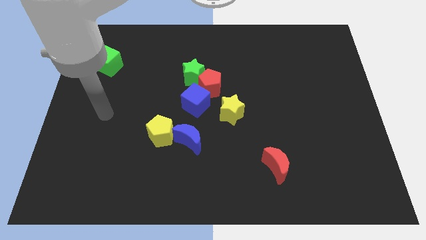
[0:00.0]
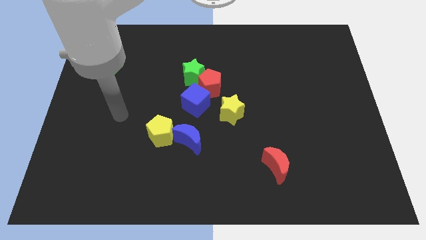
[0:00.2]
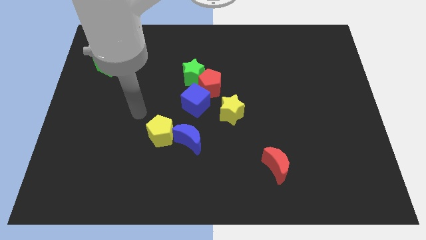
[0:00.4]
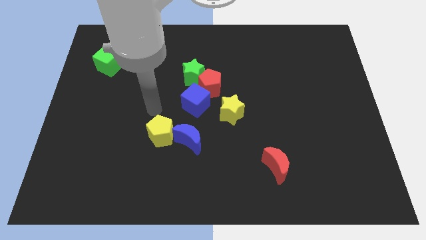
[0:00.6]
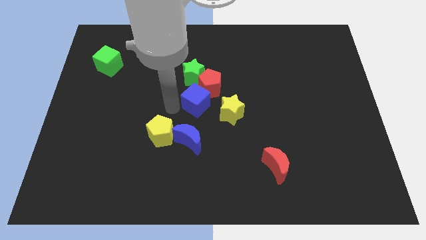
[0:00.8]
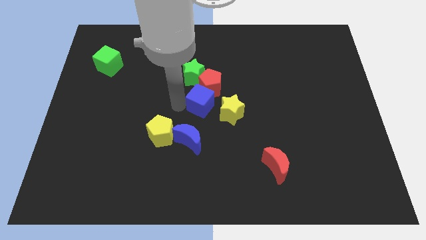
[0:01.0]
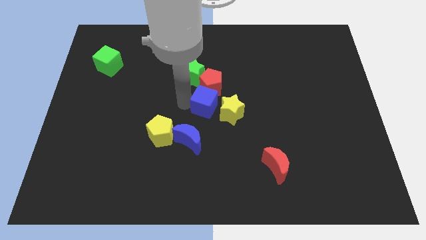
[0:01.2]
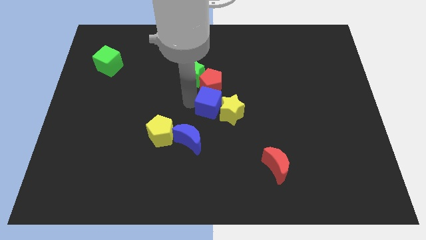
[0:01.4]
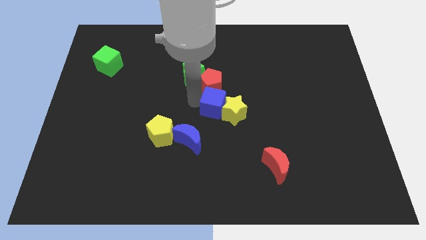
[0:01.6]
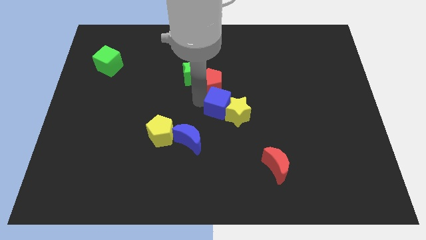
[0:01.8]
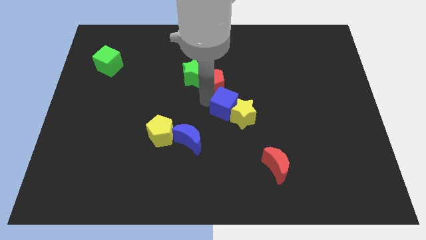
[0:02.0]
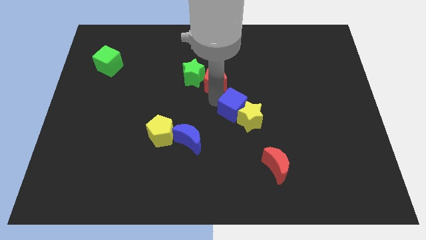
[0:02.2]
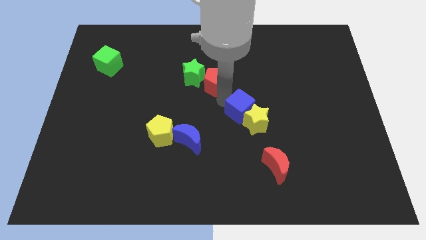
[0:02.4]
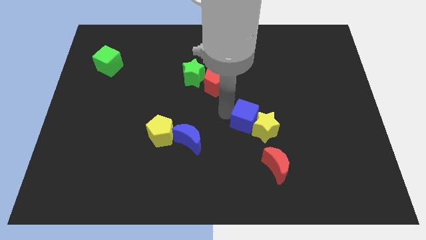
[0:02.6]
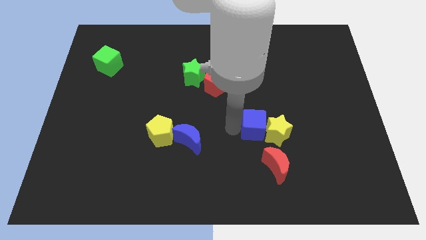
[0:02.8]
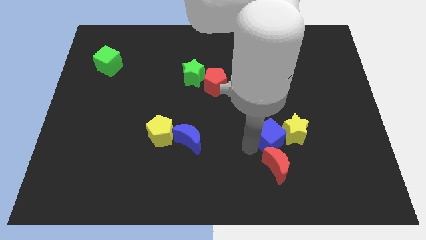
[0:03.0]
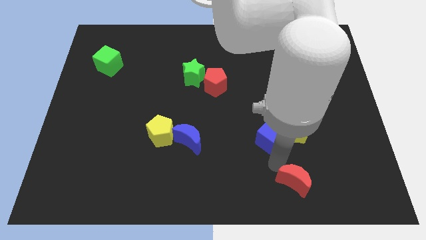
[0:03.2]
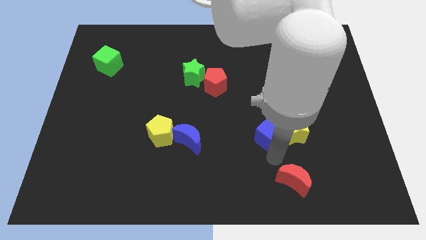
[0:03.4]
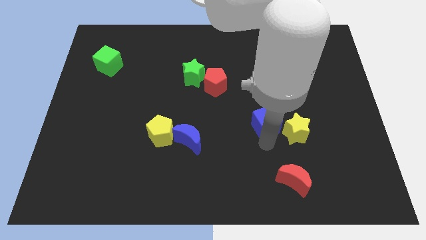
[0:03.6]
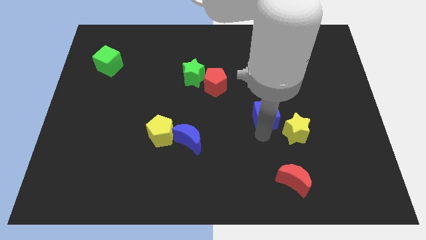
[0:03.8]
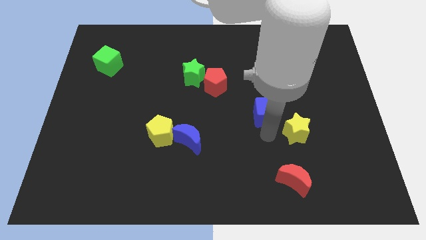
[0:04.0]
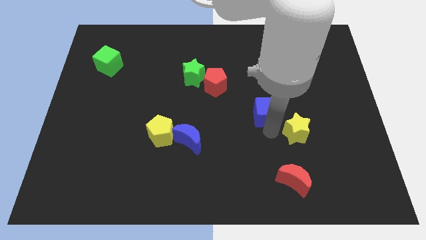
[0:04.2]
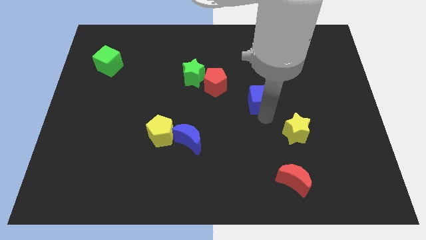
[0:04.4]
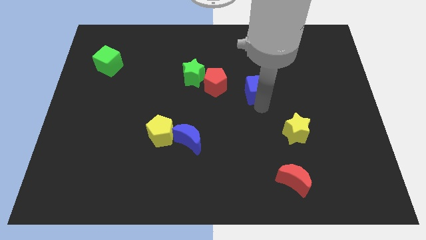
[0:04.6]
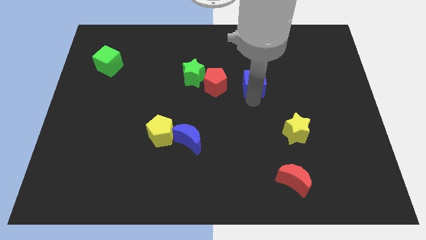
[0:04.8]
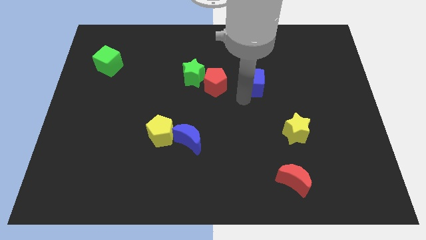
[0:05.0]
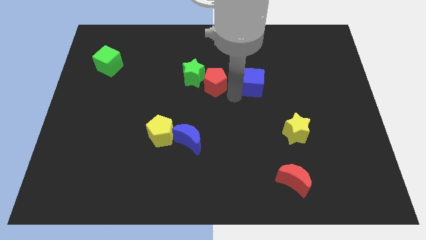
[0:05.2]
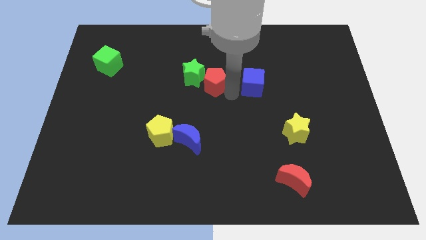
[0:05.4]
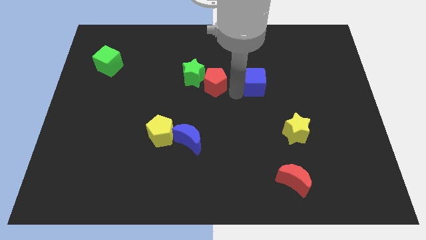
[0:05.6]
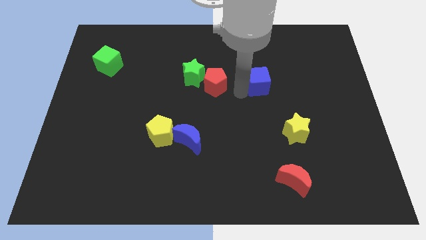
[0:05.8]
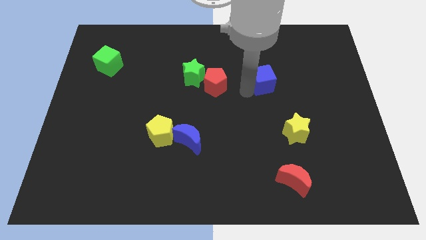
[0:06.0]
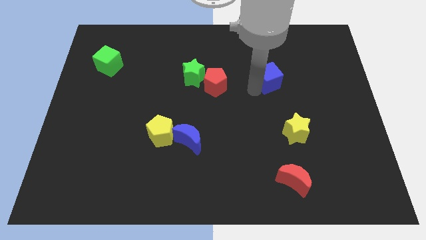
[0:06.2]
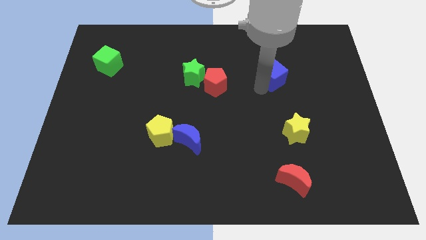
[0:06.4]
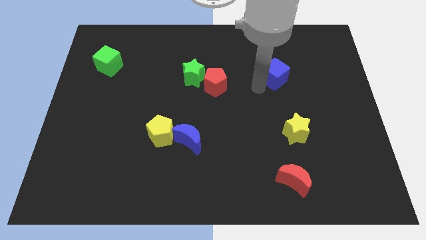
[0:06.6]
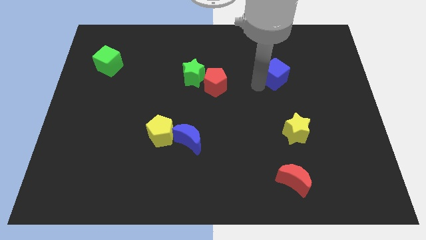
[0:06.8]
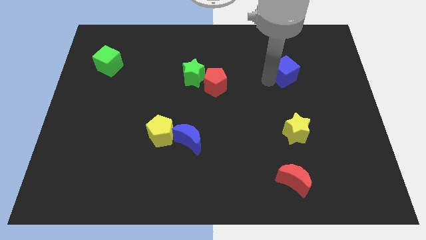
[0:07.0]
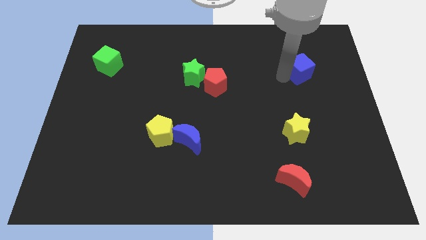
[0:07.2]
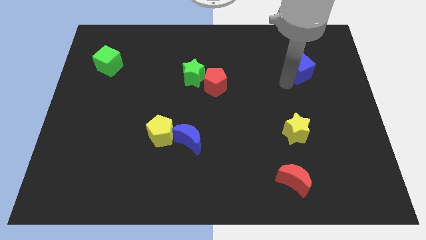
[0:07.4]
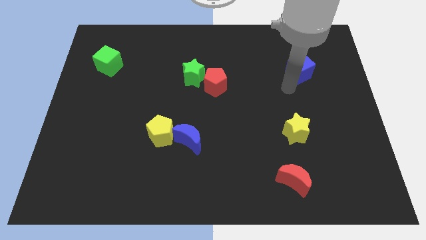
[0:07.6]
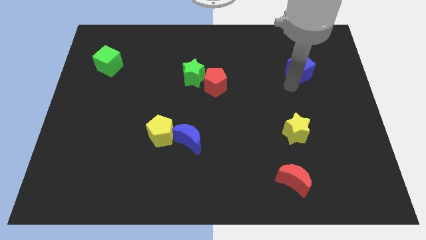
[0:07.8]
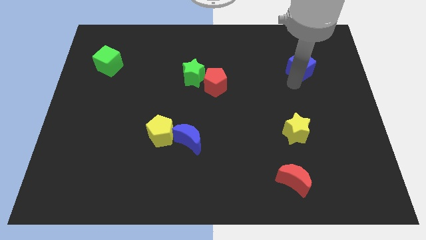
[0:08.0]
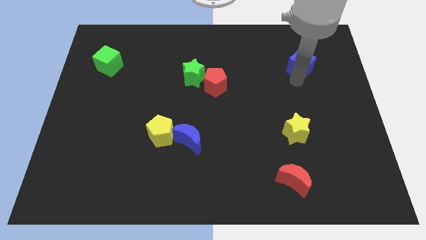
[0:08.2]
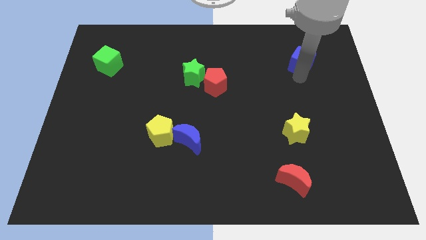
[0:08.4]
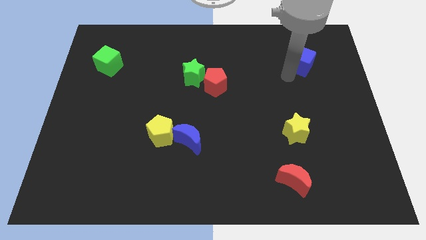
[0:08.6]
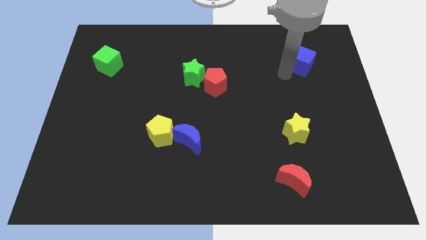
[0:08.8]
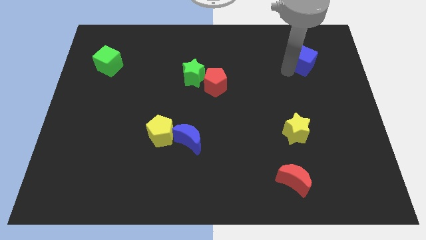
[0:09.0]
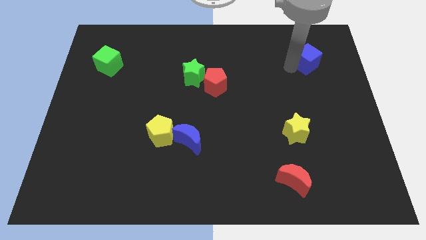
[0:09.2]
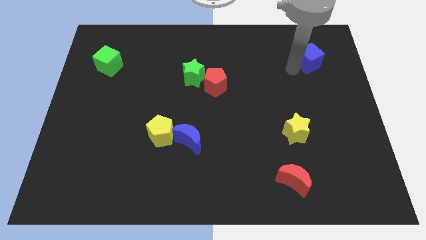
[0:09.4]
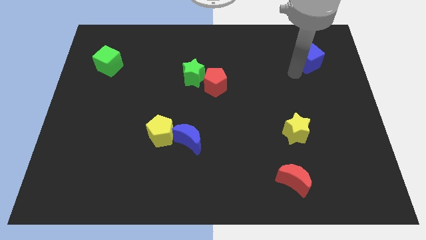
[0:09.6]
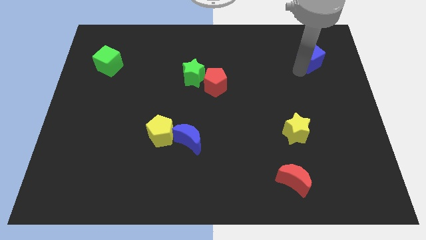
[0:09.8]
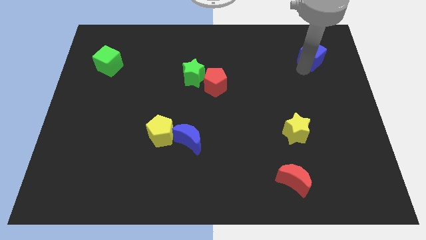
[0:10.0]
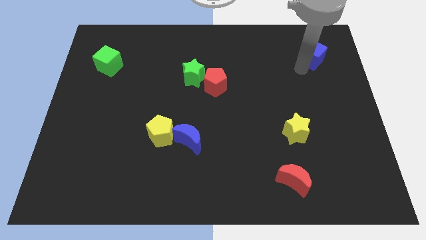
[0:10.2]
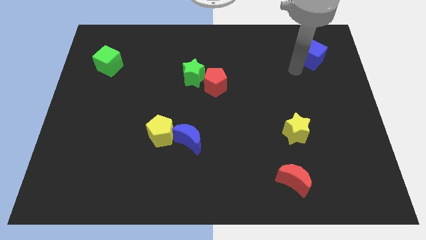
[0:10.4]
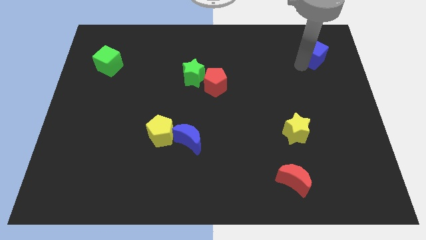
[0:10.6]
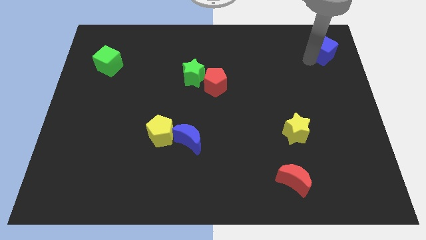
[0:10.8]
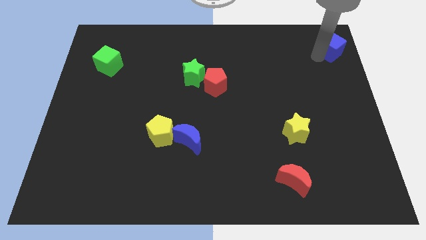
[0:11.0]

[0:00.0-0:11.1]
move the blue cube to the upper right corner
